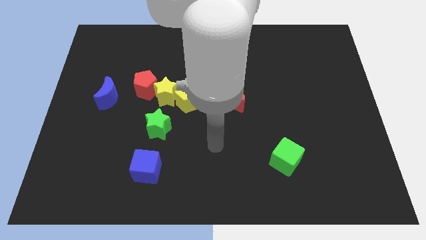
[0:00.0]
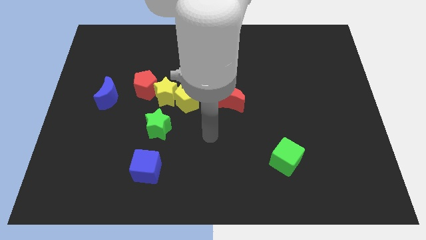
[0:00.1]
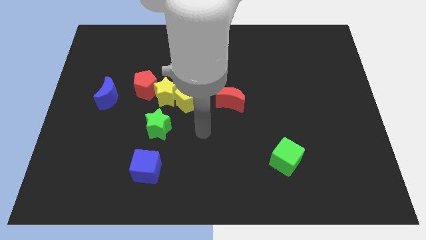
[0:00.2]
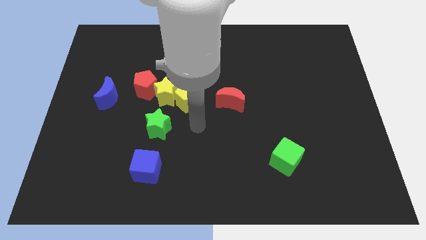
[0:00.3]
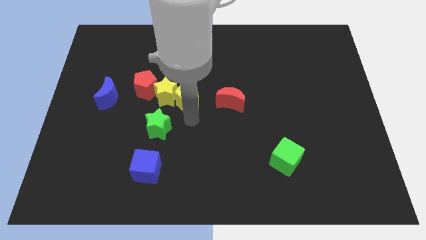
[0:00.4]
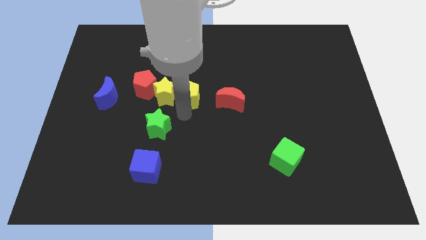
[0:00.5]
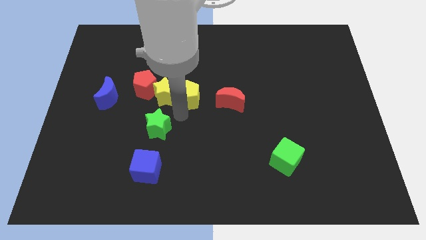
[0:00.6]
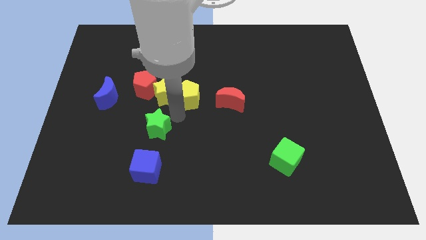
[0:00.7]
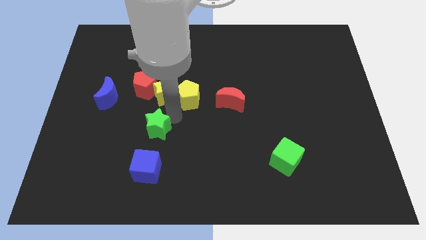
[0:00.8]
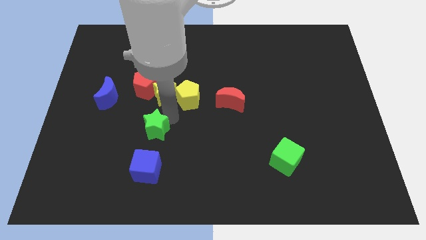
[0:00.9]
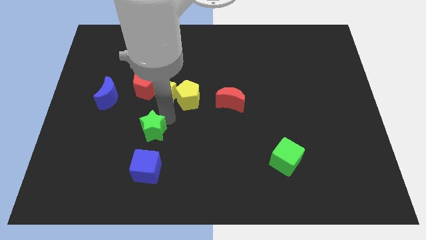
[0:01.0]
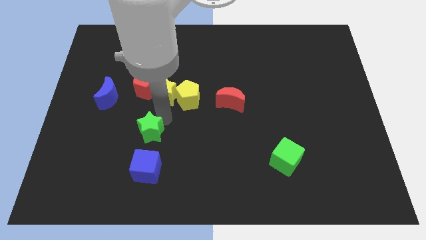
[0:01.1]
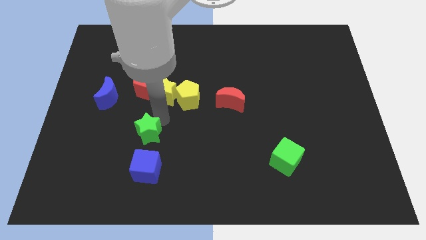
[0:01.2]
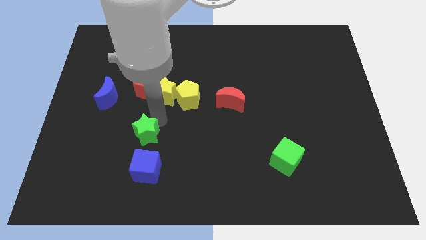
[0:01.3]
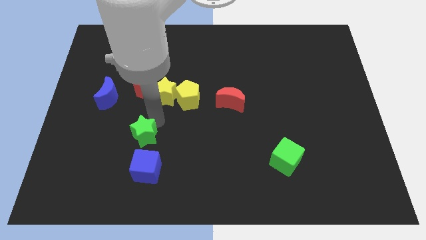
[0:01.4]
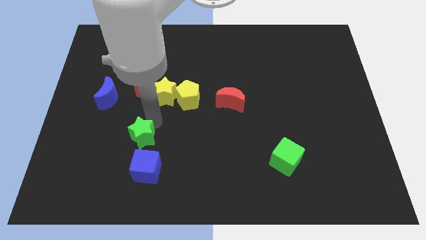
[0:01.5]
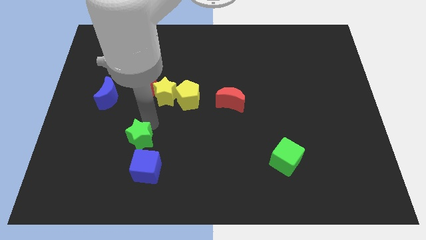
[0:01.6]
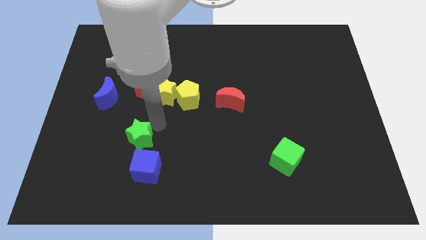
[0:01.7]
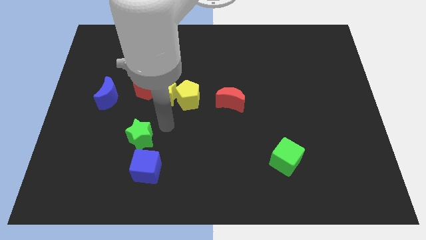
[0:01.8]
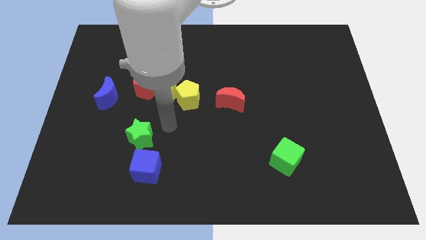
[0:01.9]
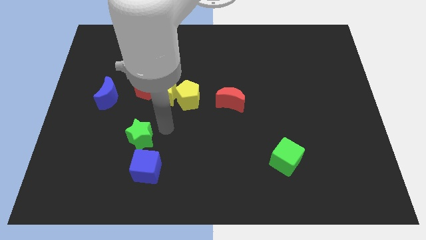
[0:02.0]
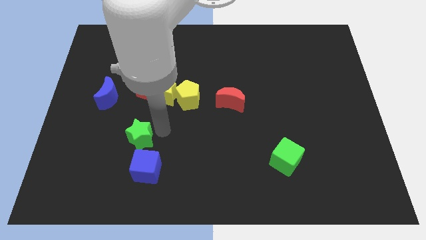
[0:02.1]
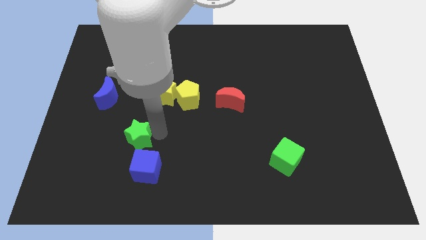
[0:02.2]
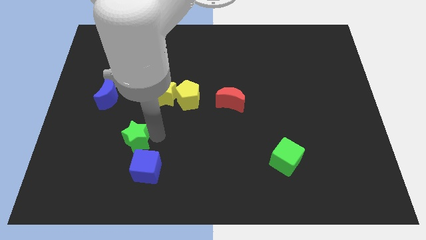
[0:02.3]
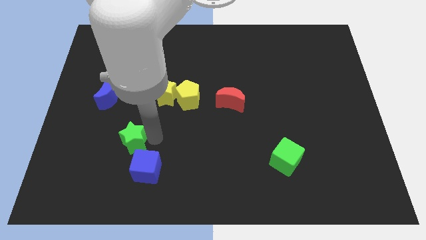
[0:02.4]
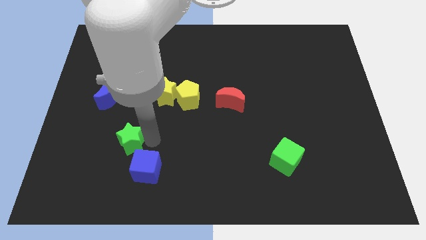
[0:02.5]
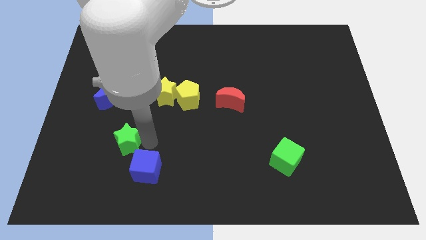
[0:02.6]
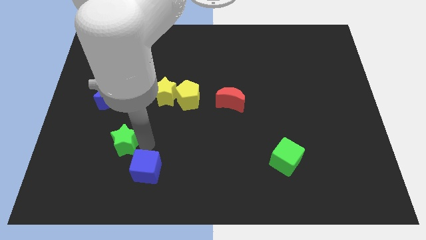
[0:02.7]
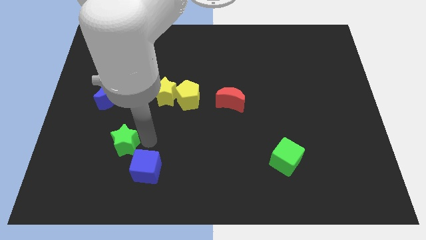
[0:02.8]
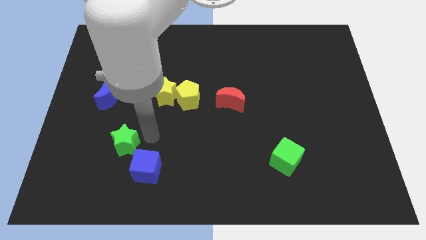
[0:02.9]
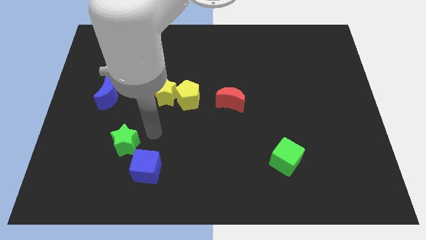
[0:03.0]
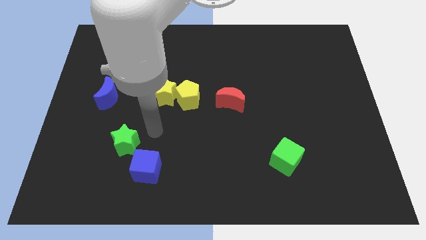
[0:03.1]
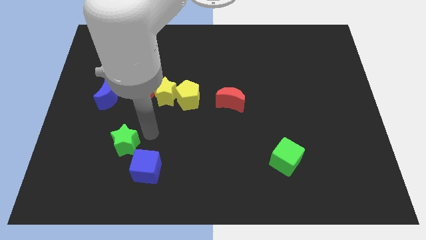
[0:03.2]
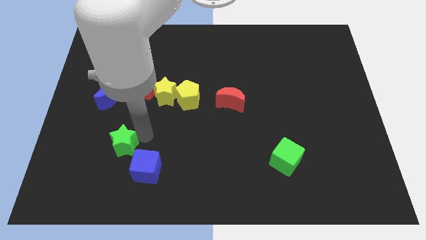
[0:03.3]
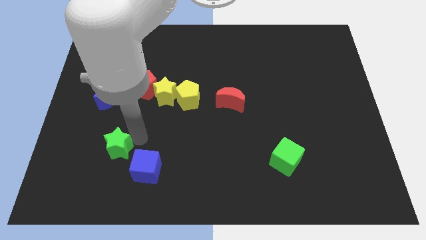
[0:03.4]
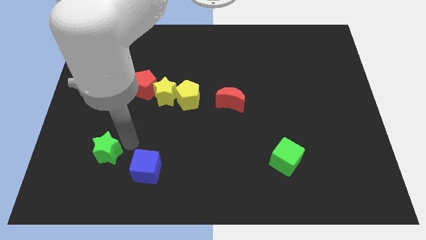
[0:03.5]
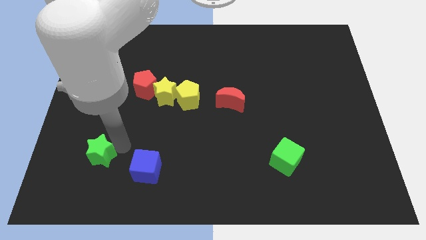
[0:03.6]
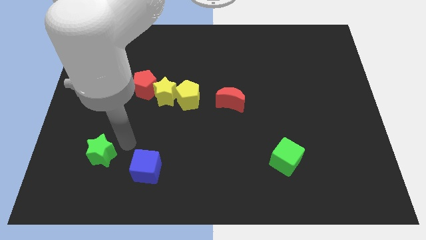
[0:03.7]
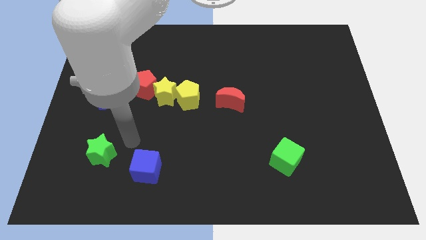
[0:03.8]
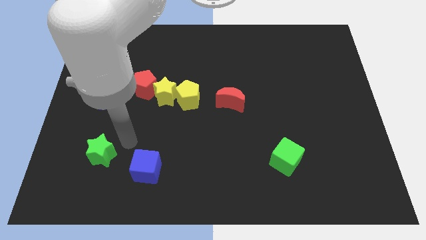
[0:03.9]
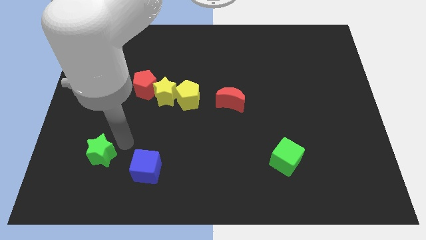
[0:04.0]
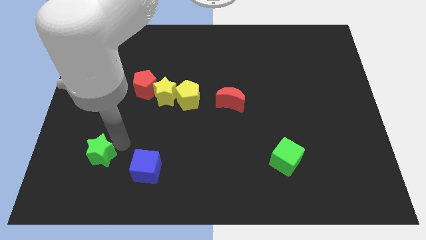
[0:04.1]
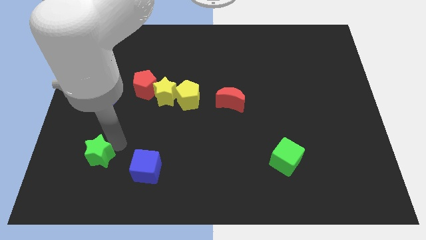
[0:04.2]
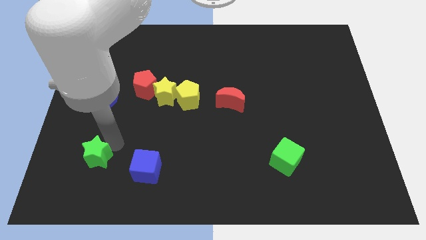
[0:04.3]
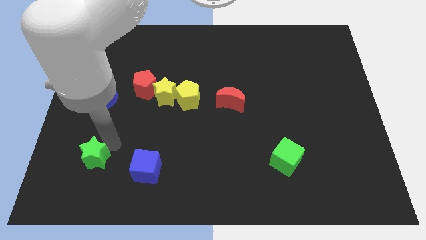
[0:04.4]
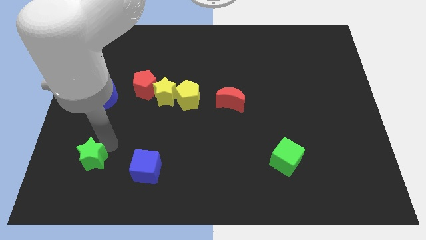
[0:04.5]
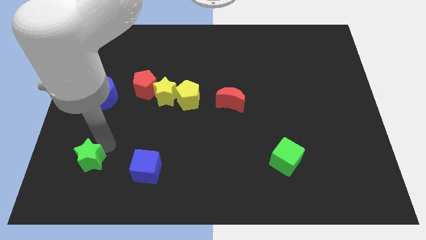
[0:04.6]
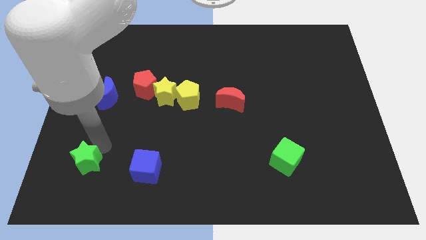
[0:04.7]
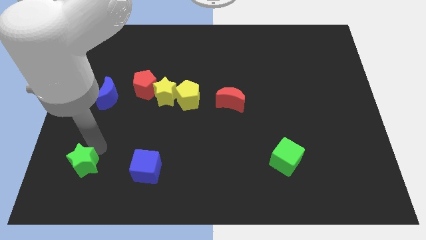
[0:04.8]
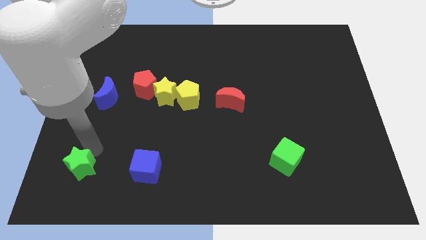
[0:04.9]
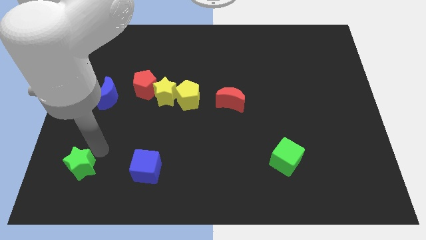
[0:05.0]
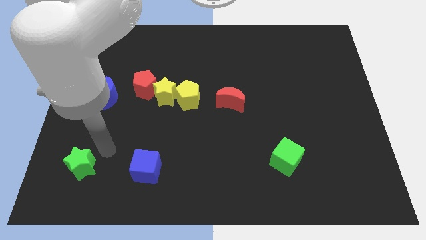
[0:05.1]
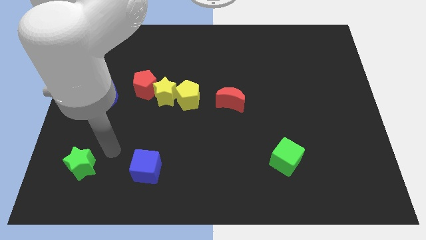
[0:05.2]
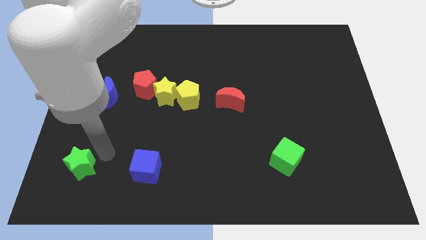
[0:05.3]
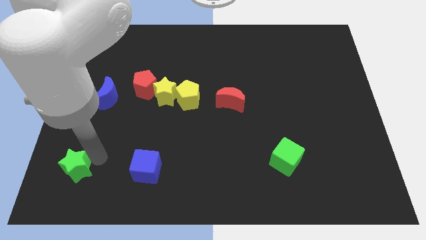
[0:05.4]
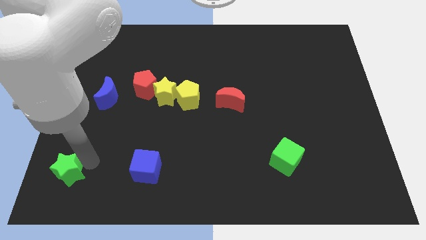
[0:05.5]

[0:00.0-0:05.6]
push the green star to the bottom left corner

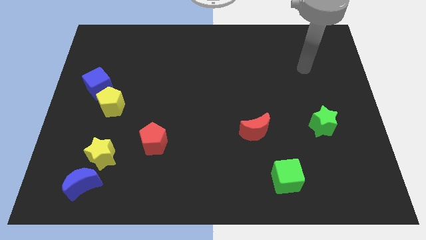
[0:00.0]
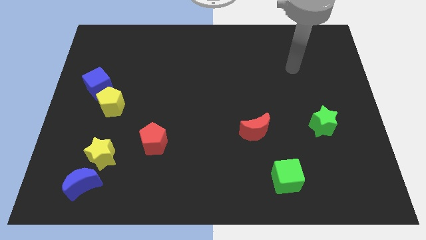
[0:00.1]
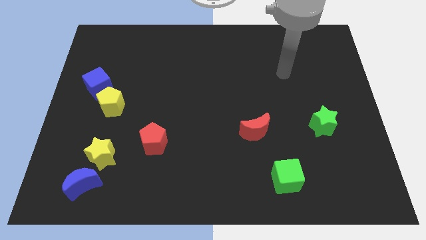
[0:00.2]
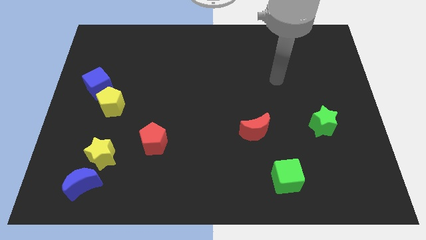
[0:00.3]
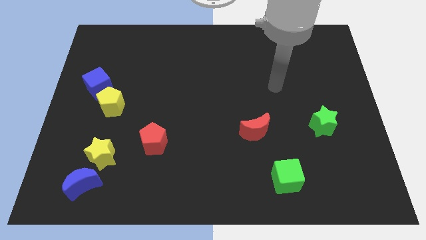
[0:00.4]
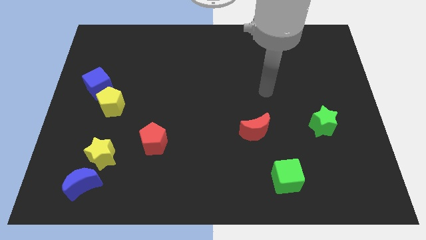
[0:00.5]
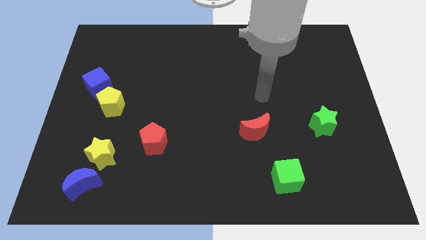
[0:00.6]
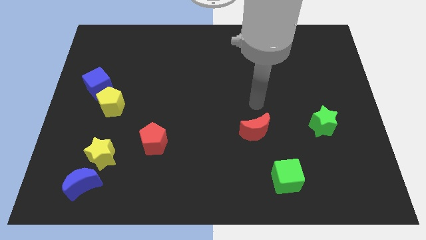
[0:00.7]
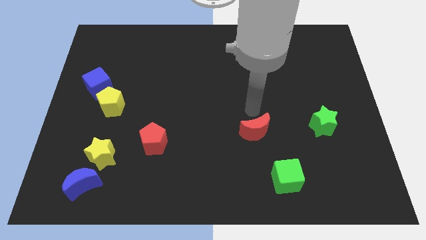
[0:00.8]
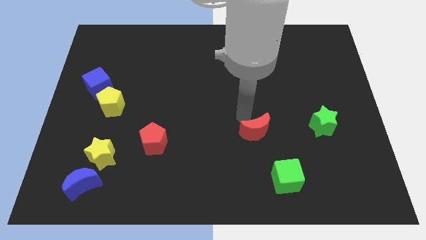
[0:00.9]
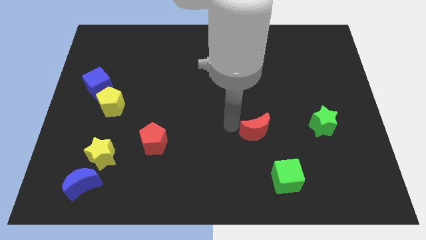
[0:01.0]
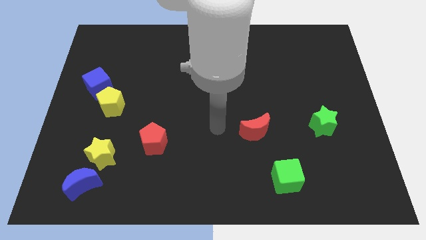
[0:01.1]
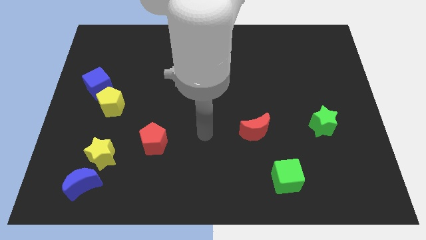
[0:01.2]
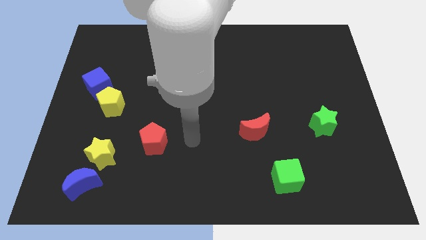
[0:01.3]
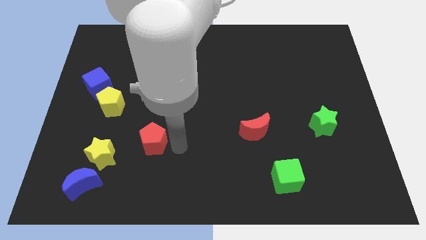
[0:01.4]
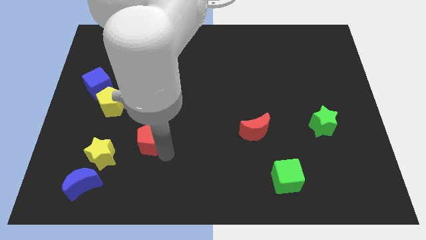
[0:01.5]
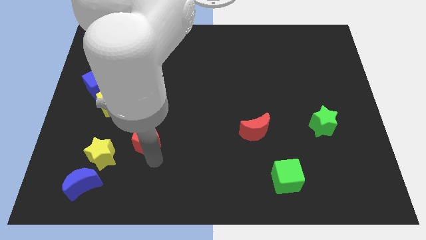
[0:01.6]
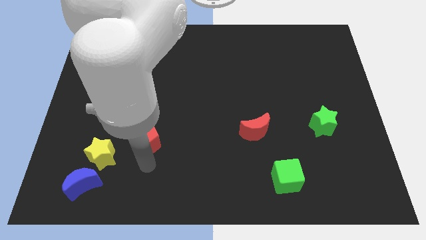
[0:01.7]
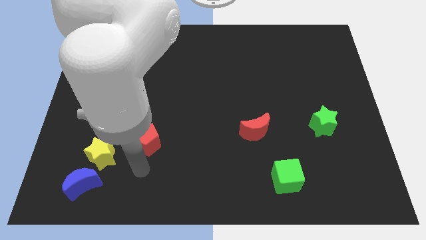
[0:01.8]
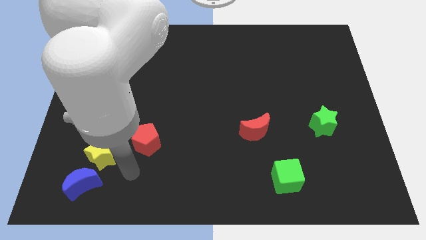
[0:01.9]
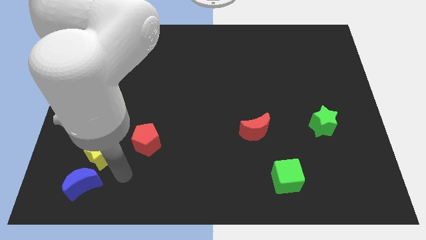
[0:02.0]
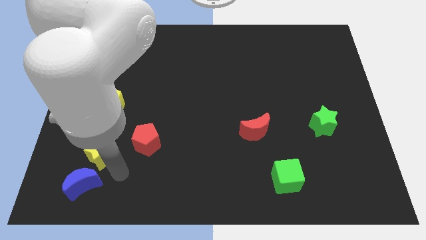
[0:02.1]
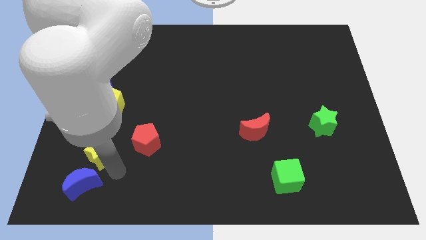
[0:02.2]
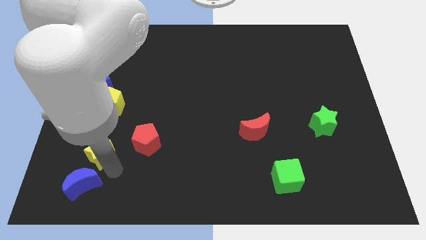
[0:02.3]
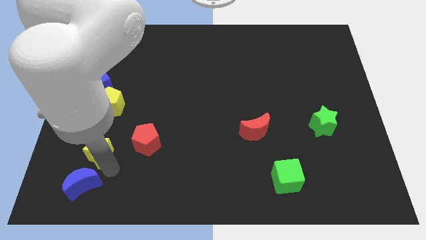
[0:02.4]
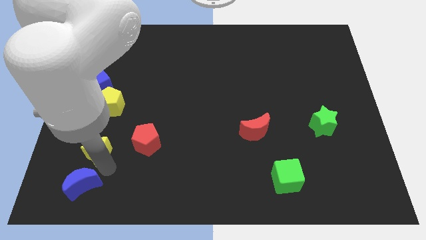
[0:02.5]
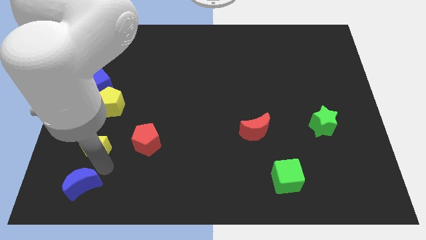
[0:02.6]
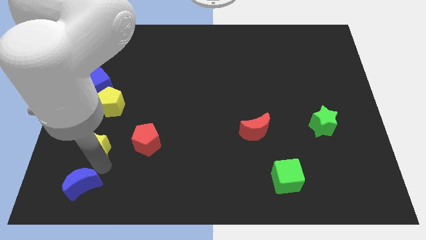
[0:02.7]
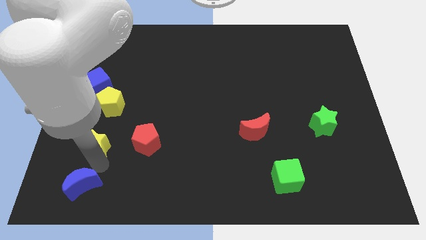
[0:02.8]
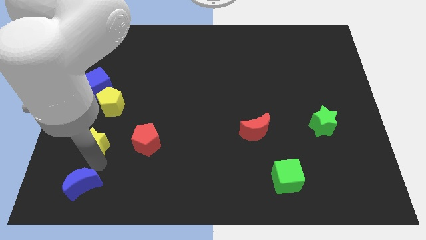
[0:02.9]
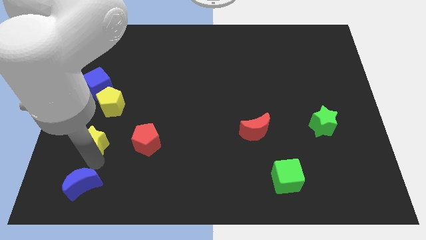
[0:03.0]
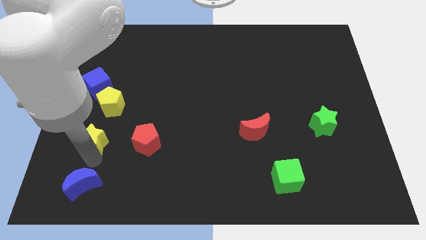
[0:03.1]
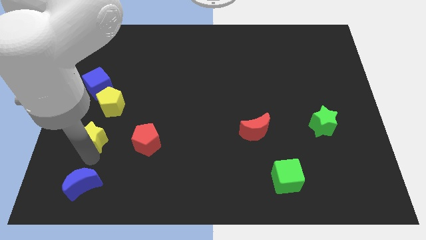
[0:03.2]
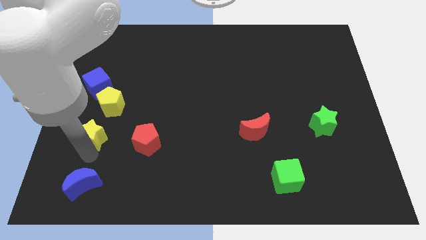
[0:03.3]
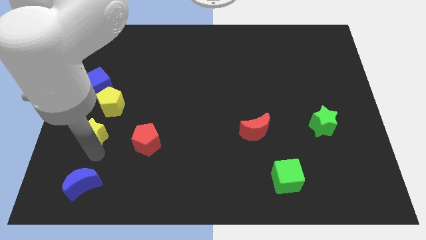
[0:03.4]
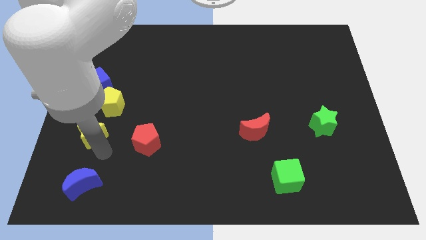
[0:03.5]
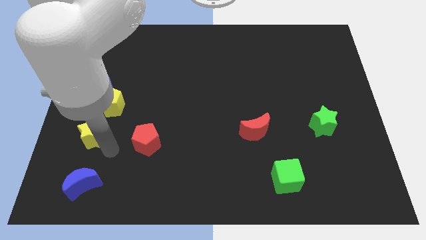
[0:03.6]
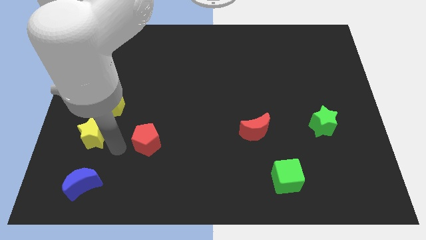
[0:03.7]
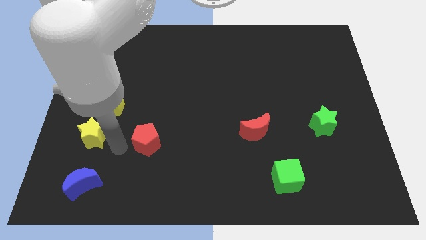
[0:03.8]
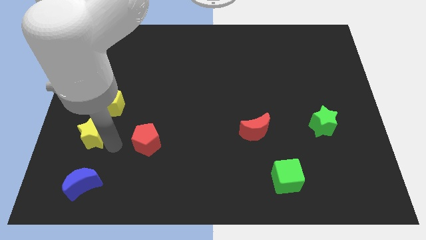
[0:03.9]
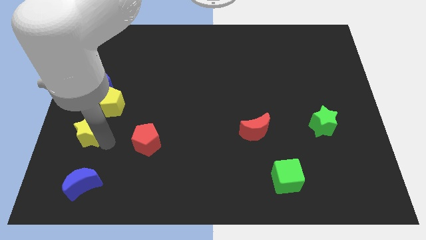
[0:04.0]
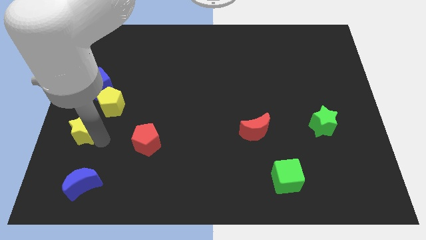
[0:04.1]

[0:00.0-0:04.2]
move the yellow star to the left side of the board
